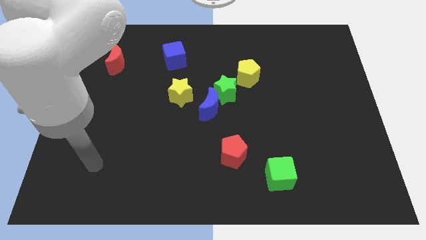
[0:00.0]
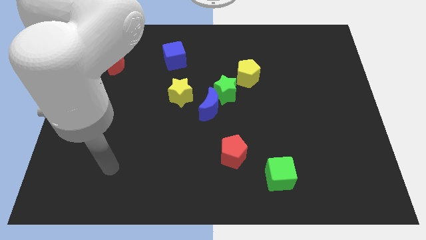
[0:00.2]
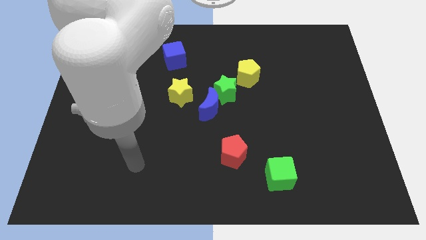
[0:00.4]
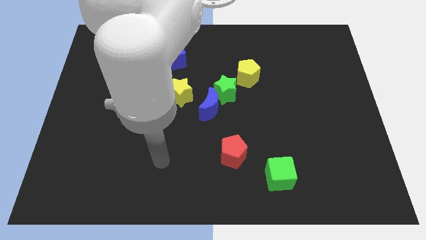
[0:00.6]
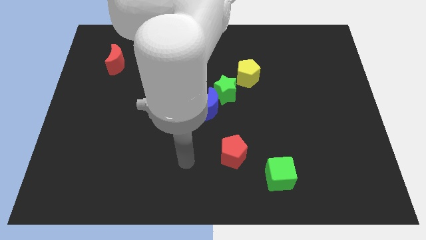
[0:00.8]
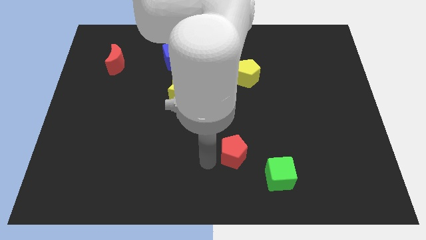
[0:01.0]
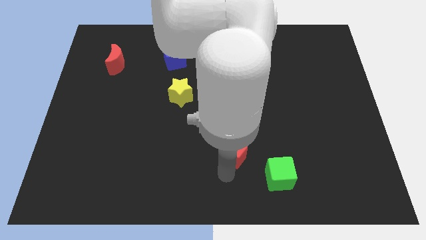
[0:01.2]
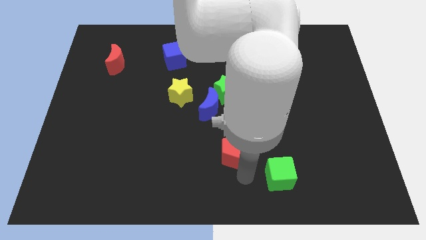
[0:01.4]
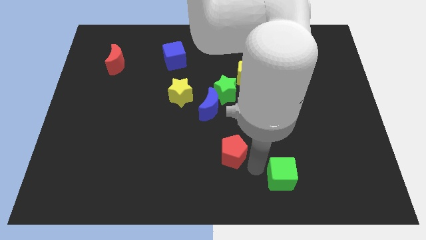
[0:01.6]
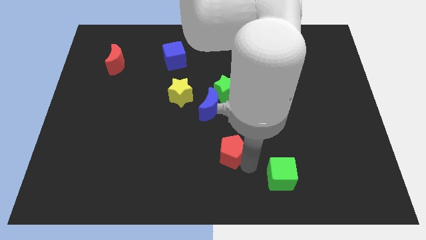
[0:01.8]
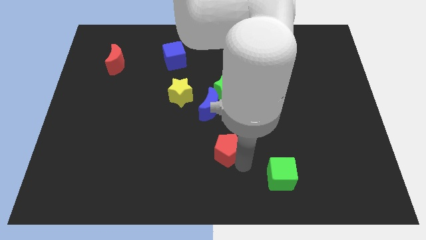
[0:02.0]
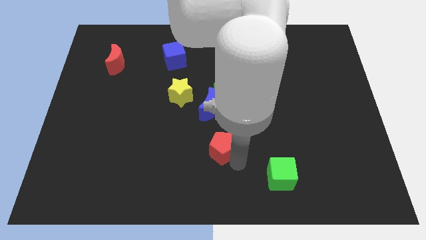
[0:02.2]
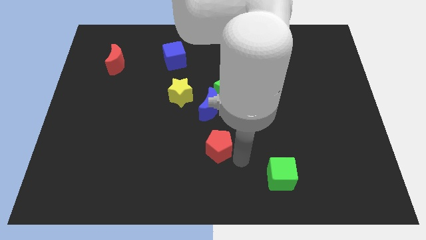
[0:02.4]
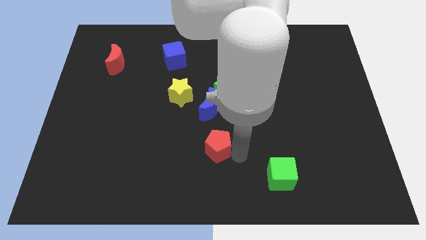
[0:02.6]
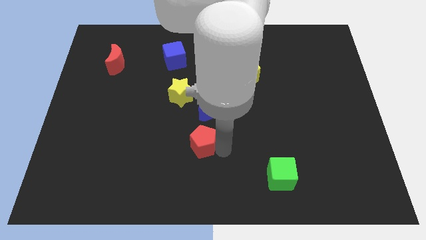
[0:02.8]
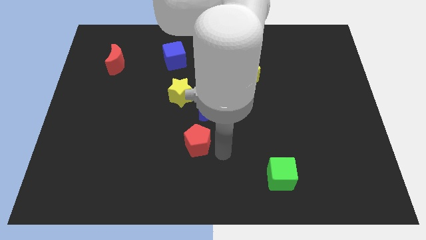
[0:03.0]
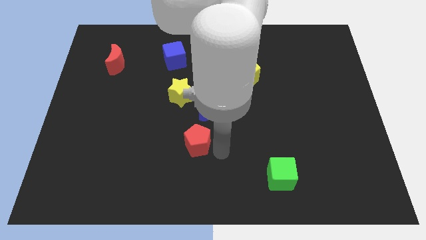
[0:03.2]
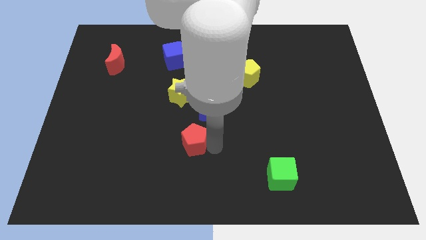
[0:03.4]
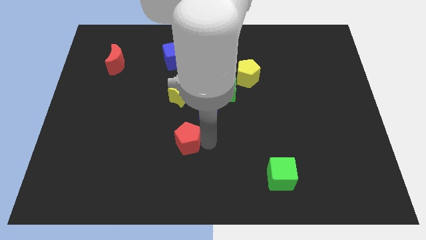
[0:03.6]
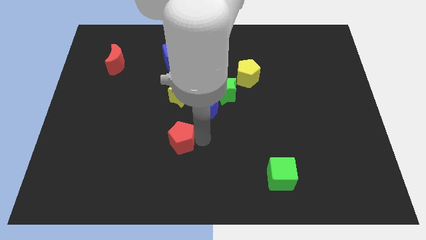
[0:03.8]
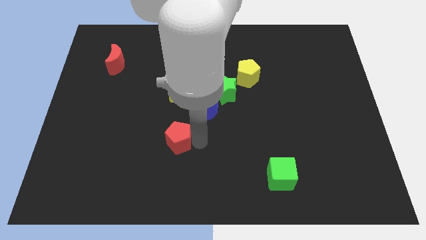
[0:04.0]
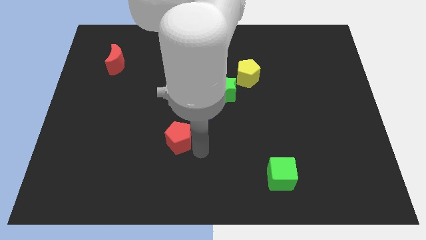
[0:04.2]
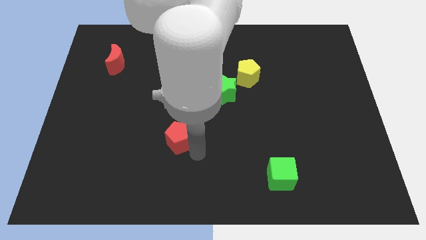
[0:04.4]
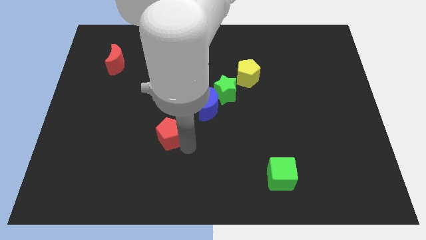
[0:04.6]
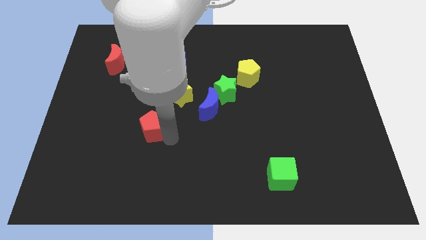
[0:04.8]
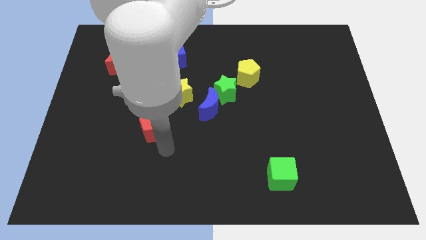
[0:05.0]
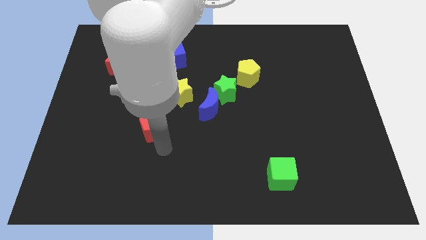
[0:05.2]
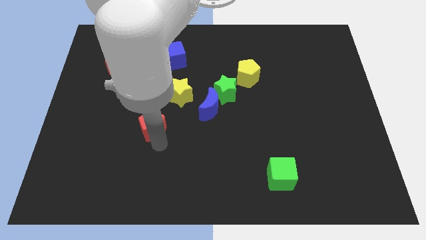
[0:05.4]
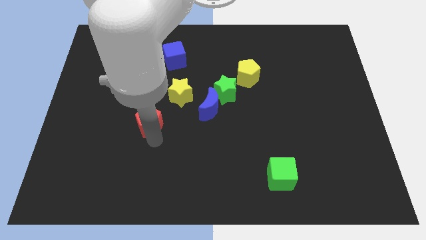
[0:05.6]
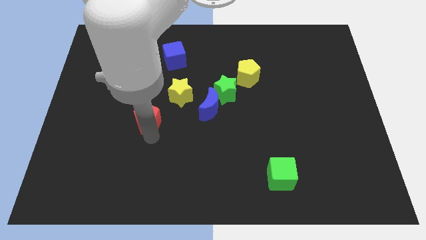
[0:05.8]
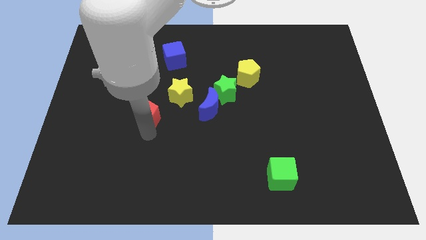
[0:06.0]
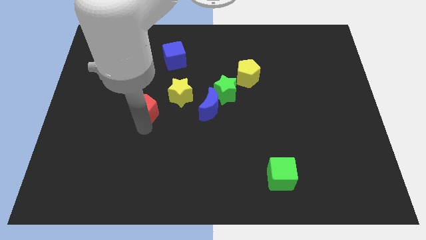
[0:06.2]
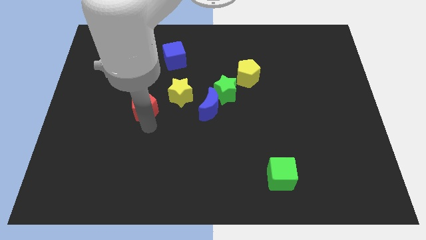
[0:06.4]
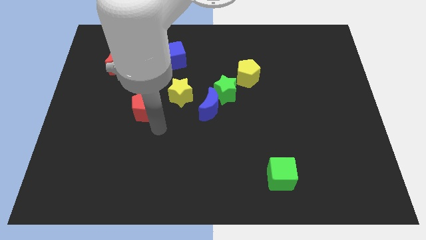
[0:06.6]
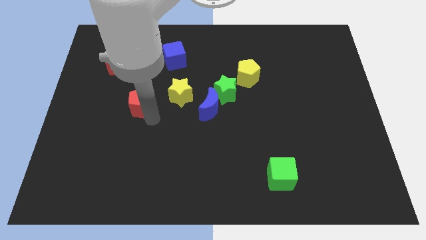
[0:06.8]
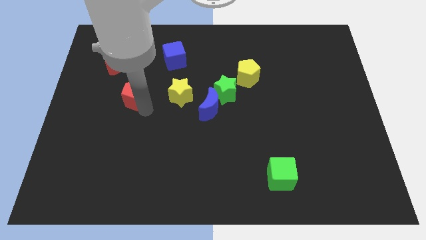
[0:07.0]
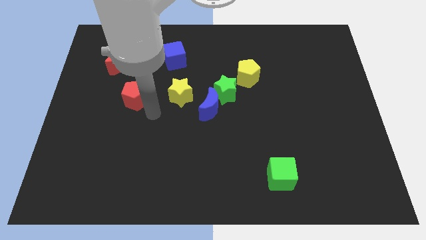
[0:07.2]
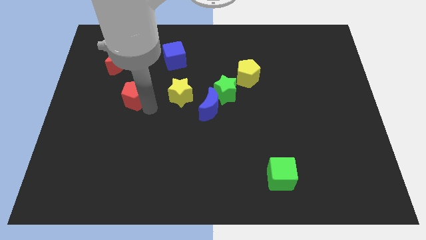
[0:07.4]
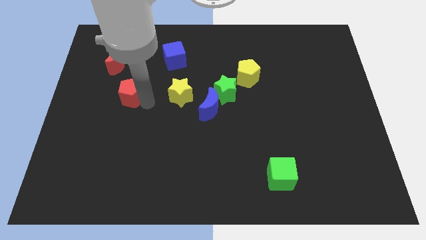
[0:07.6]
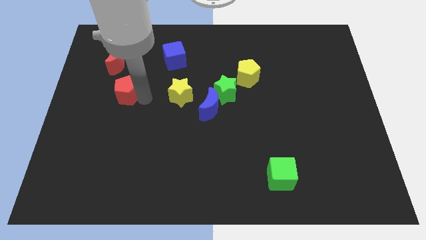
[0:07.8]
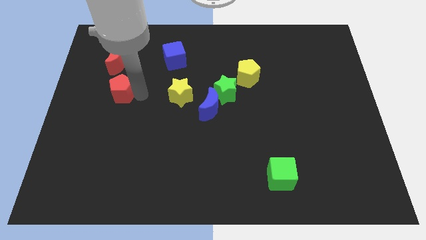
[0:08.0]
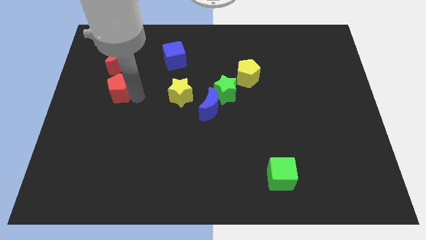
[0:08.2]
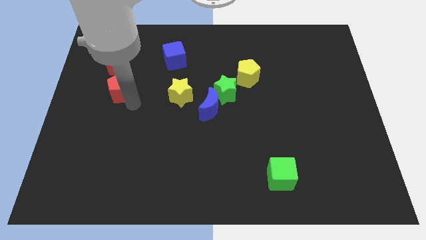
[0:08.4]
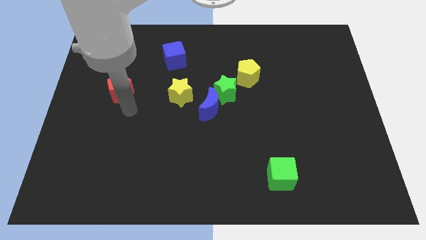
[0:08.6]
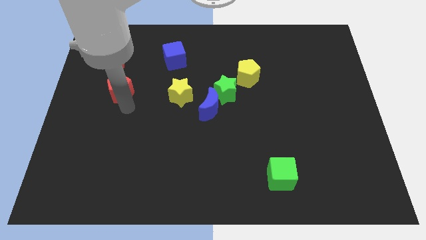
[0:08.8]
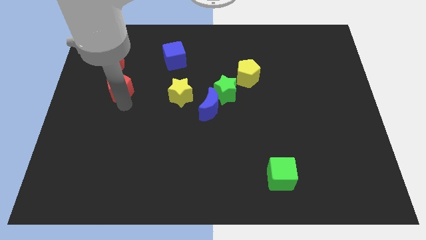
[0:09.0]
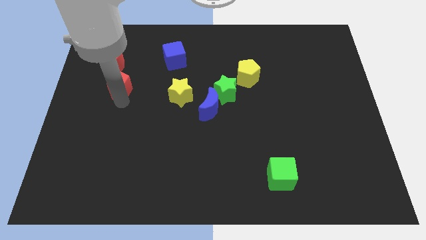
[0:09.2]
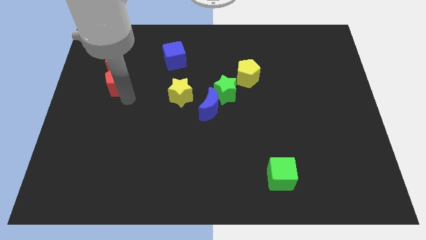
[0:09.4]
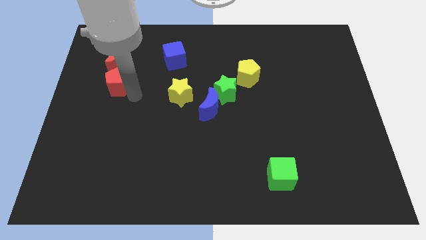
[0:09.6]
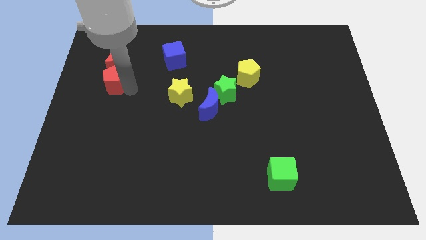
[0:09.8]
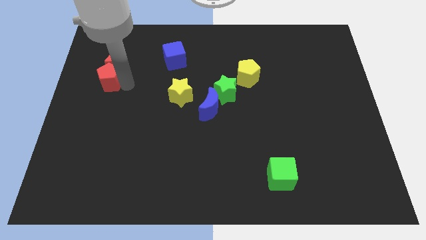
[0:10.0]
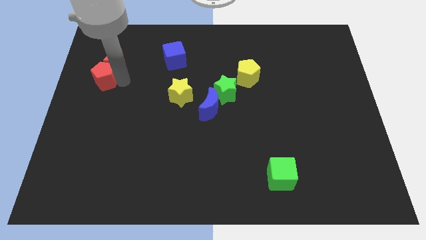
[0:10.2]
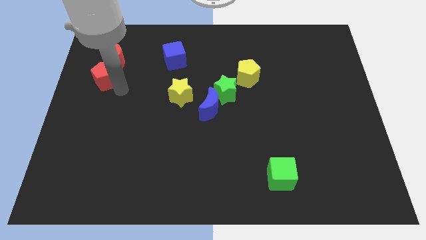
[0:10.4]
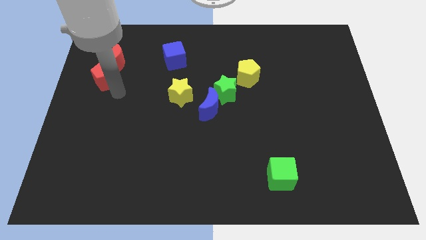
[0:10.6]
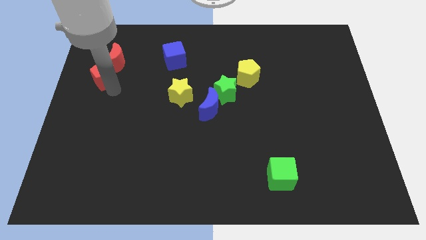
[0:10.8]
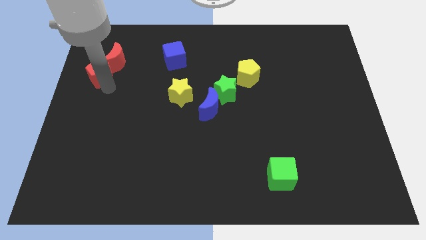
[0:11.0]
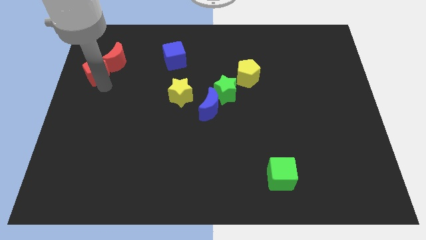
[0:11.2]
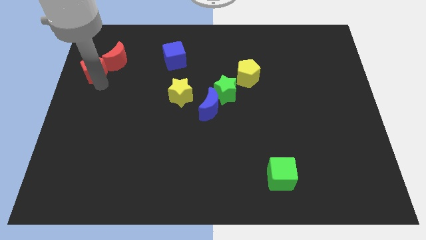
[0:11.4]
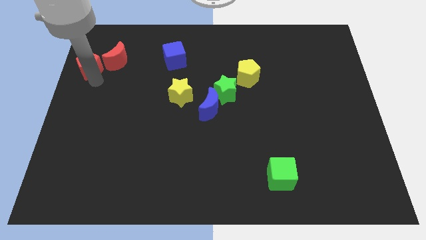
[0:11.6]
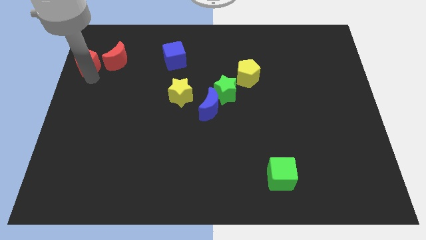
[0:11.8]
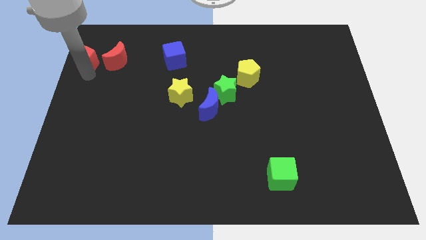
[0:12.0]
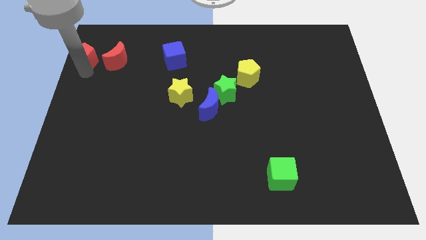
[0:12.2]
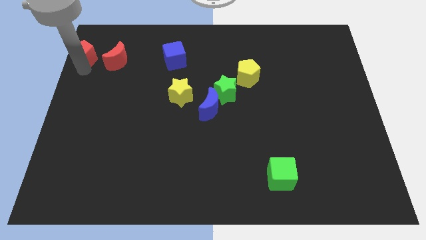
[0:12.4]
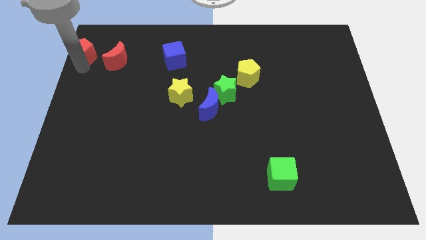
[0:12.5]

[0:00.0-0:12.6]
push the red pentagon to the top left corner
